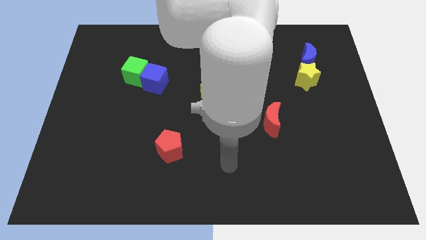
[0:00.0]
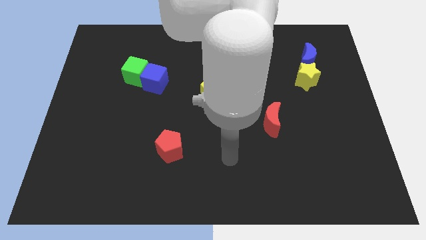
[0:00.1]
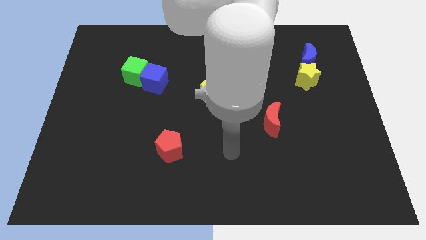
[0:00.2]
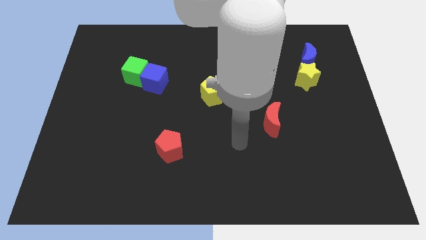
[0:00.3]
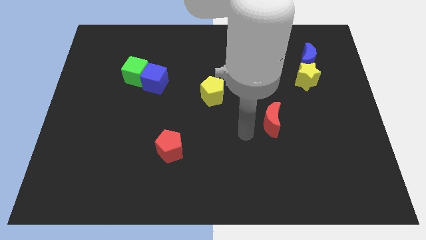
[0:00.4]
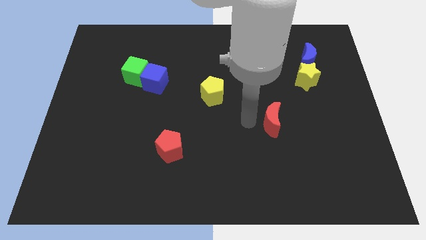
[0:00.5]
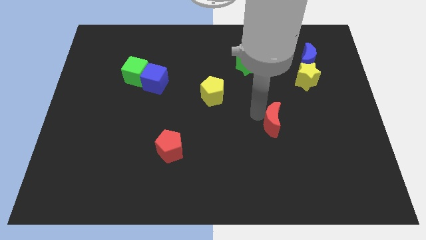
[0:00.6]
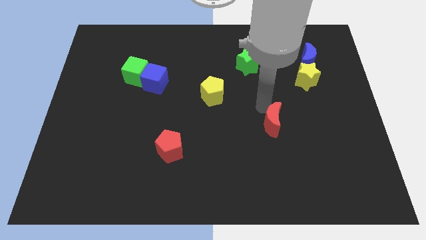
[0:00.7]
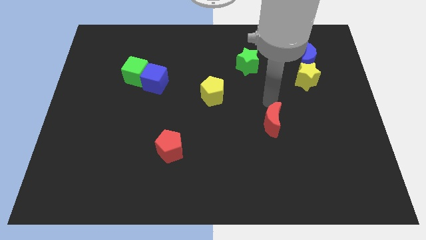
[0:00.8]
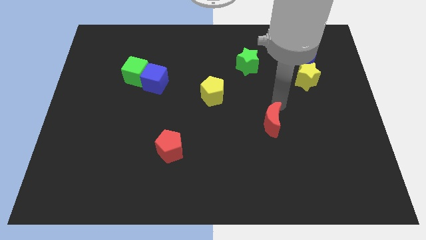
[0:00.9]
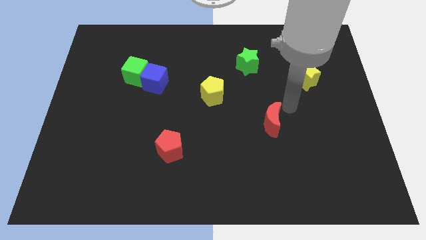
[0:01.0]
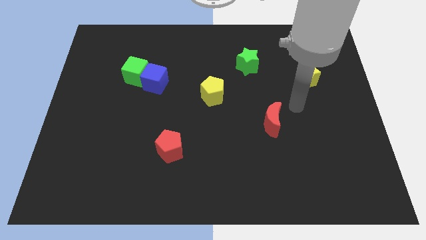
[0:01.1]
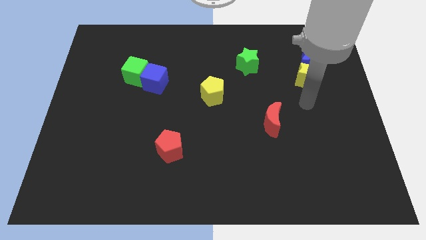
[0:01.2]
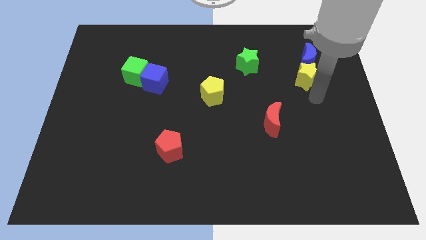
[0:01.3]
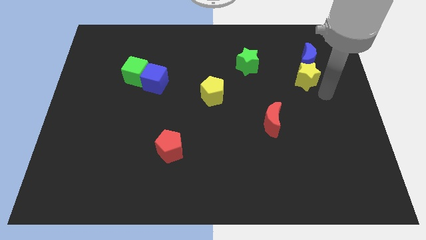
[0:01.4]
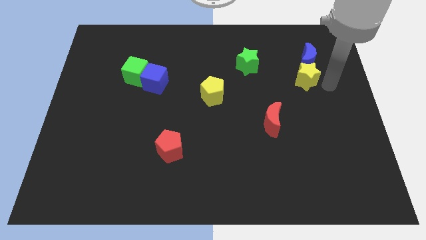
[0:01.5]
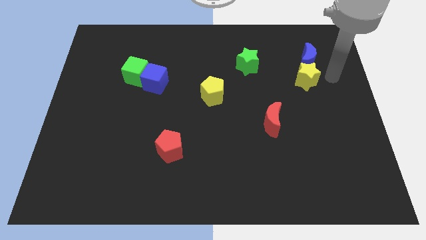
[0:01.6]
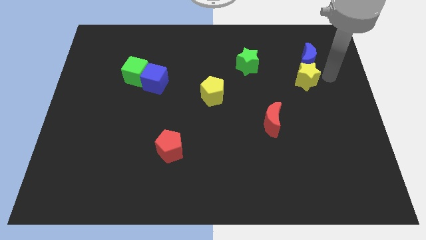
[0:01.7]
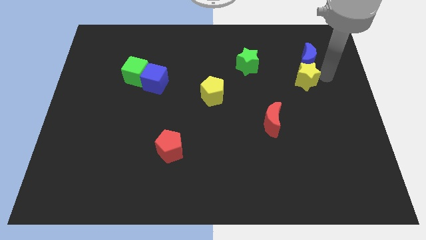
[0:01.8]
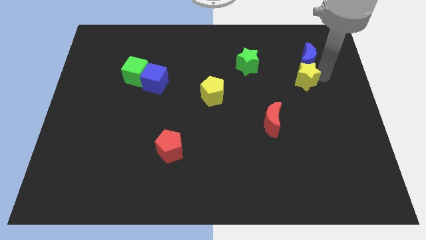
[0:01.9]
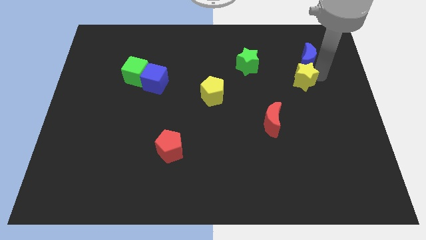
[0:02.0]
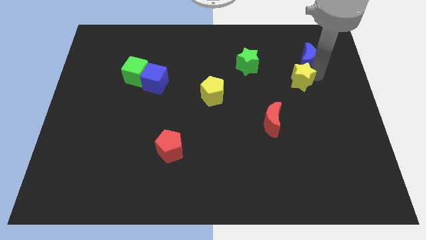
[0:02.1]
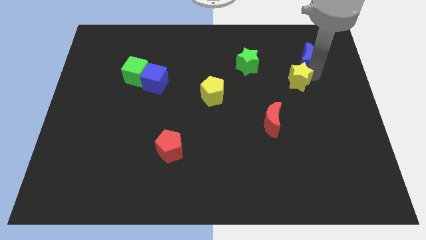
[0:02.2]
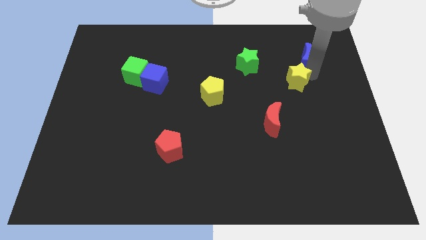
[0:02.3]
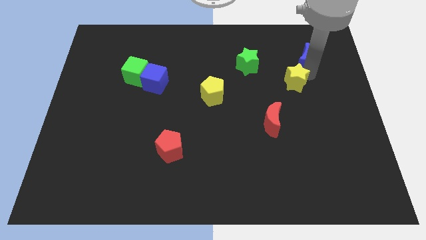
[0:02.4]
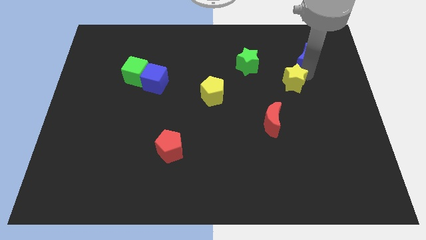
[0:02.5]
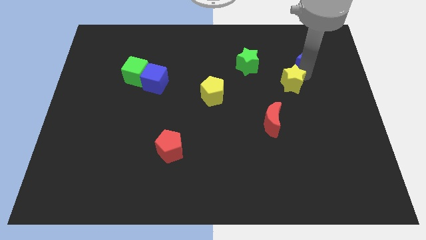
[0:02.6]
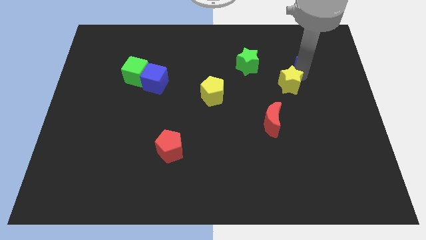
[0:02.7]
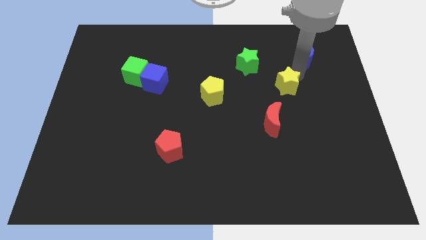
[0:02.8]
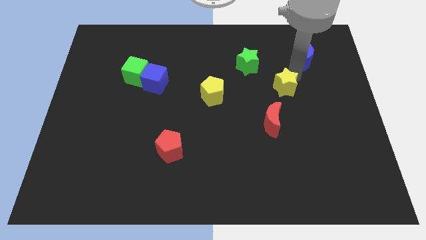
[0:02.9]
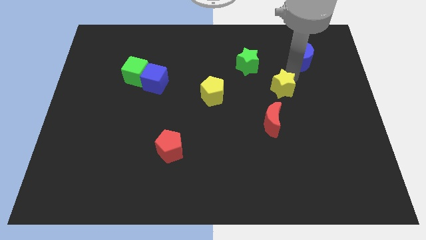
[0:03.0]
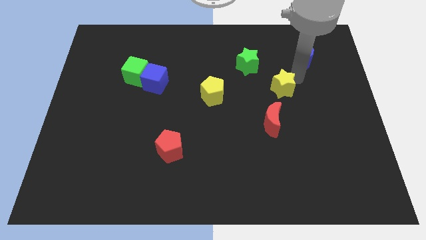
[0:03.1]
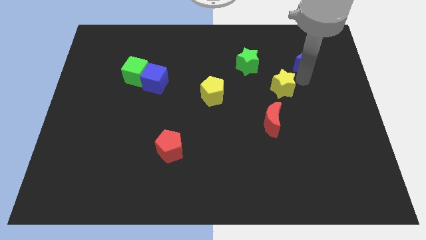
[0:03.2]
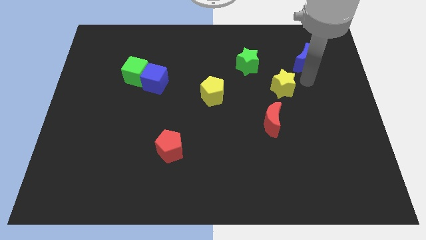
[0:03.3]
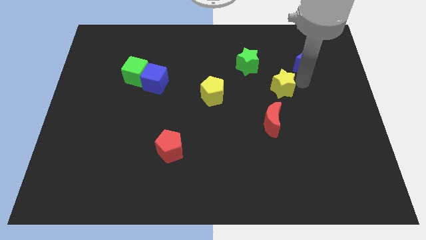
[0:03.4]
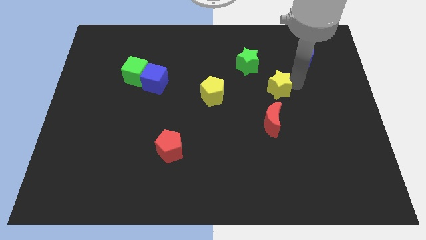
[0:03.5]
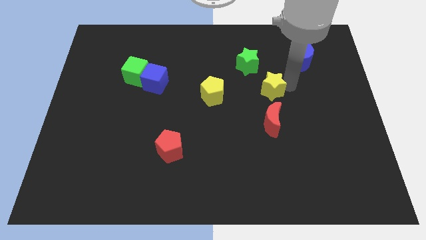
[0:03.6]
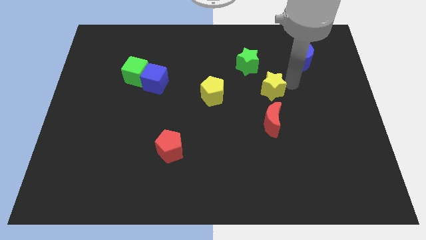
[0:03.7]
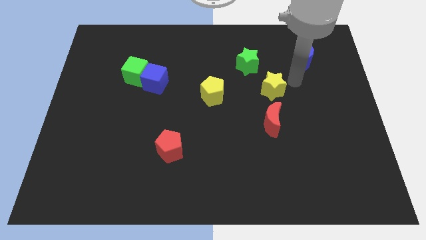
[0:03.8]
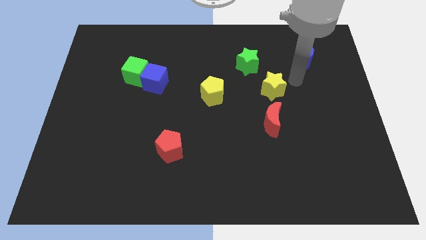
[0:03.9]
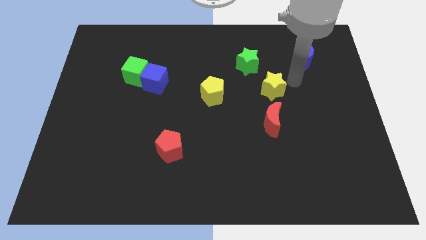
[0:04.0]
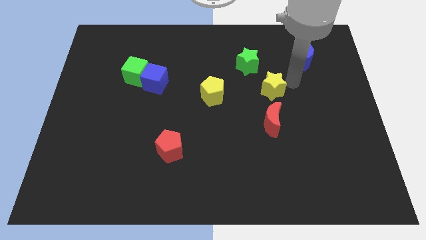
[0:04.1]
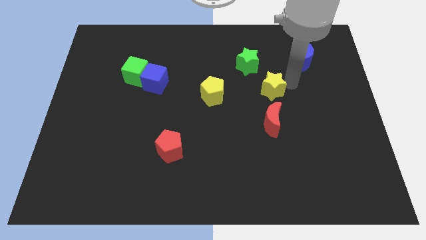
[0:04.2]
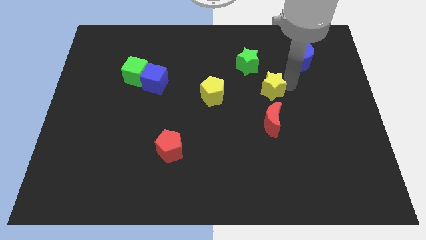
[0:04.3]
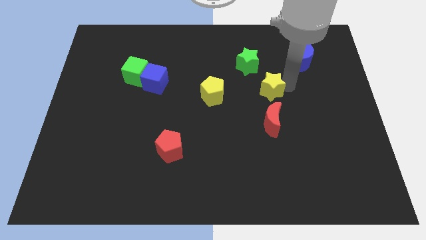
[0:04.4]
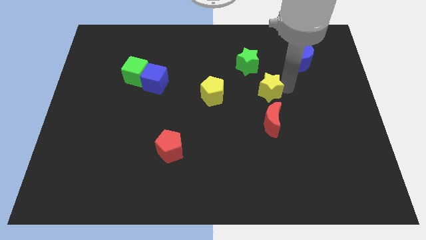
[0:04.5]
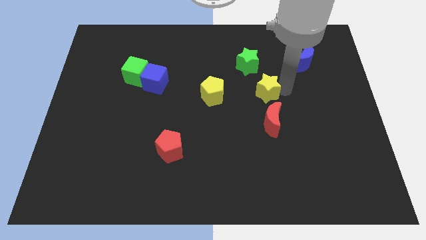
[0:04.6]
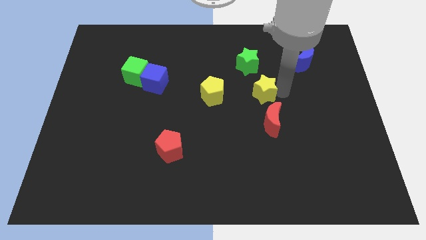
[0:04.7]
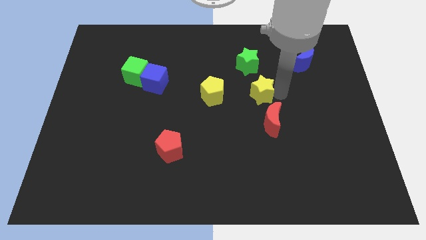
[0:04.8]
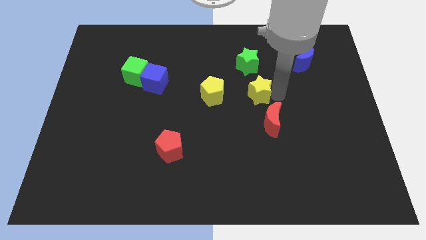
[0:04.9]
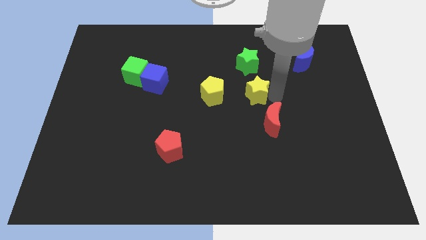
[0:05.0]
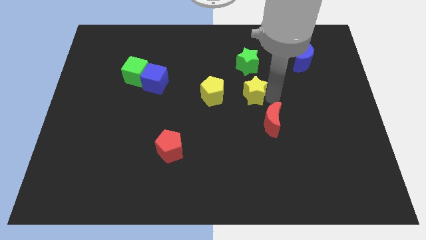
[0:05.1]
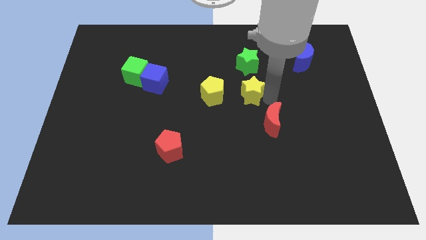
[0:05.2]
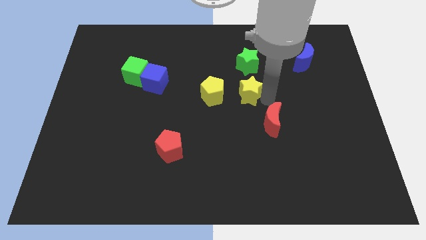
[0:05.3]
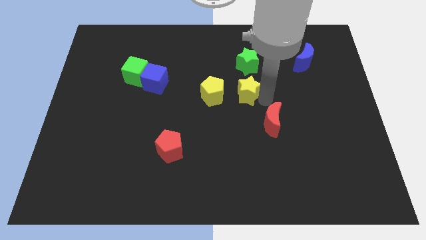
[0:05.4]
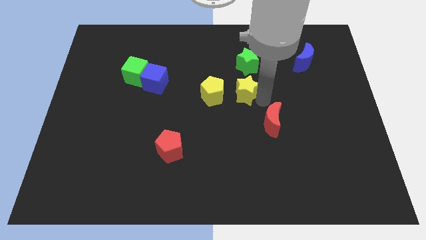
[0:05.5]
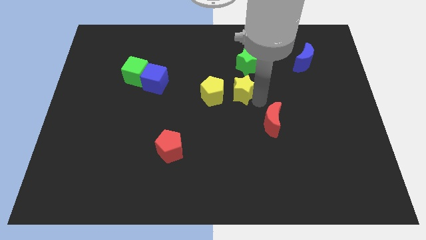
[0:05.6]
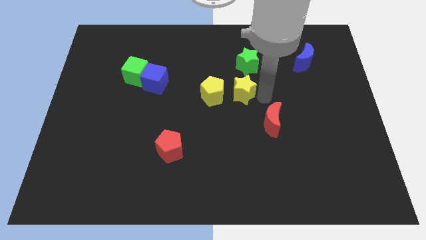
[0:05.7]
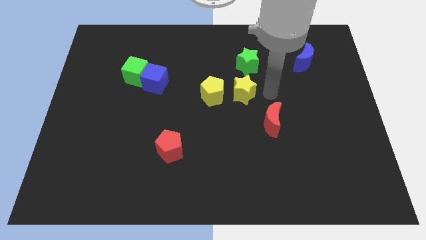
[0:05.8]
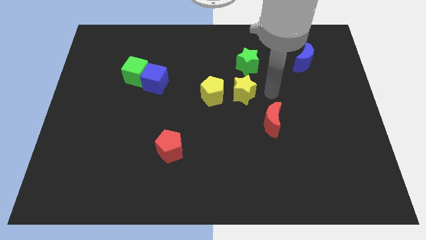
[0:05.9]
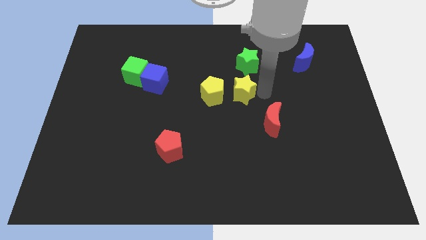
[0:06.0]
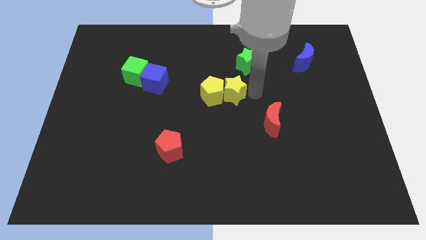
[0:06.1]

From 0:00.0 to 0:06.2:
put the yellow star to the yellow pentagon

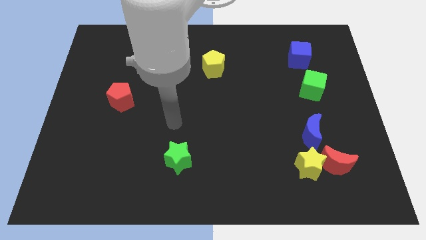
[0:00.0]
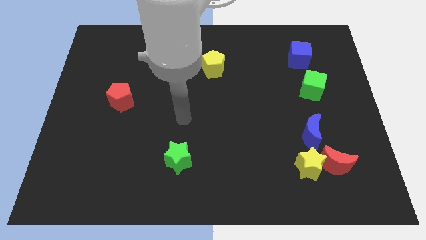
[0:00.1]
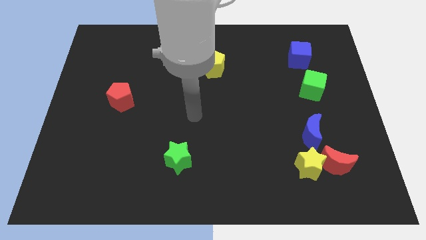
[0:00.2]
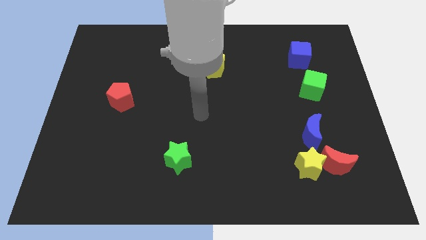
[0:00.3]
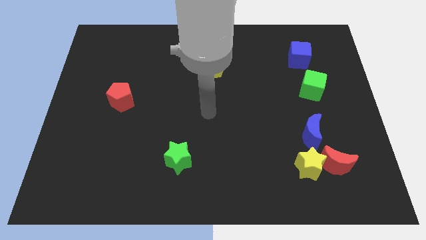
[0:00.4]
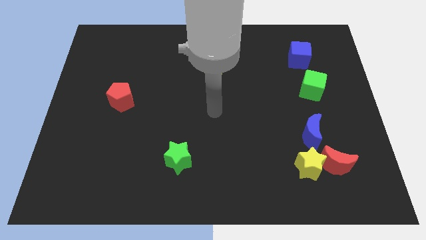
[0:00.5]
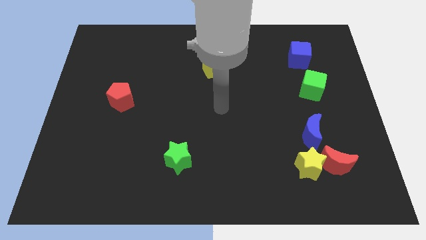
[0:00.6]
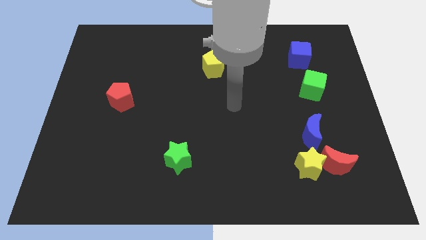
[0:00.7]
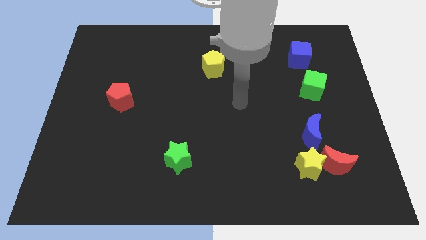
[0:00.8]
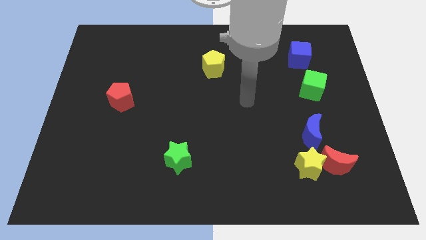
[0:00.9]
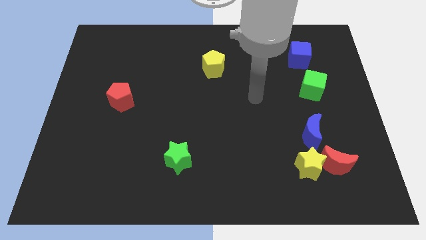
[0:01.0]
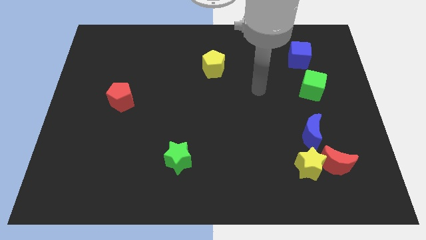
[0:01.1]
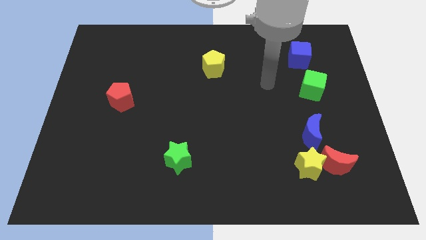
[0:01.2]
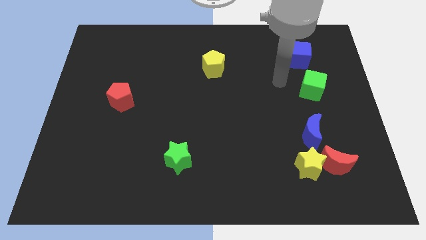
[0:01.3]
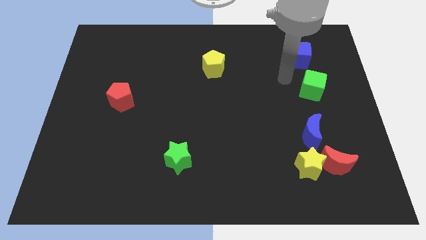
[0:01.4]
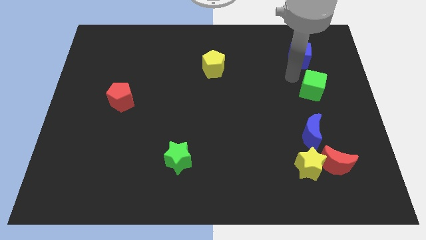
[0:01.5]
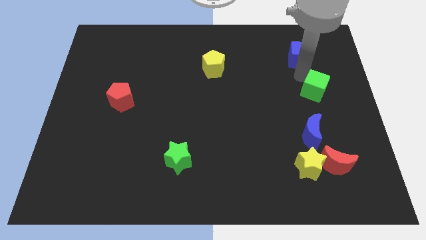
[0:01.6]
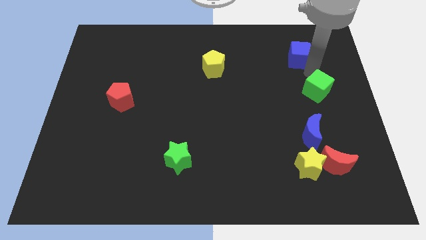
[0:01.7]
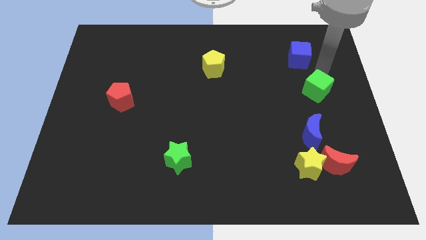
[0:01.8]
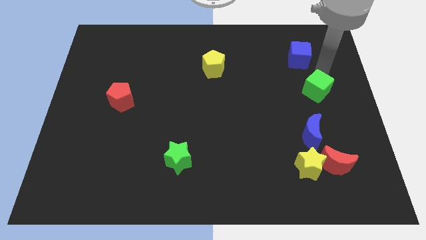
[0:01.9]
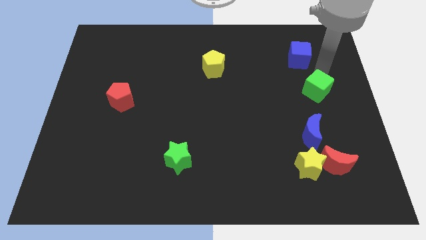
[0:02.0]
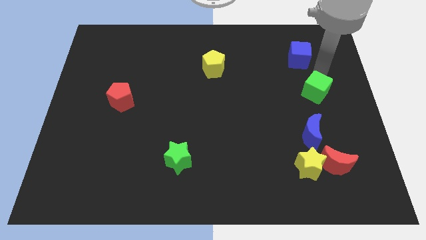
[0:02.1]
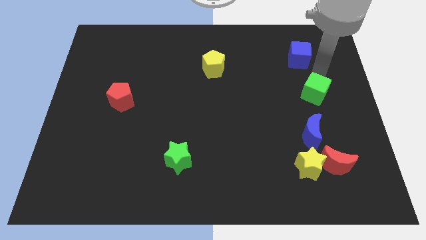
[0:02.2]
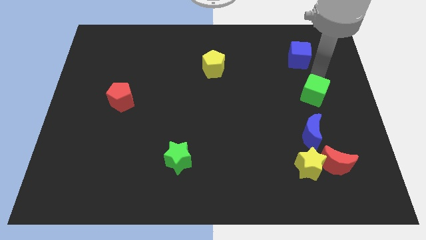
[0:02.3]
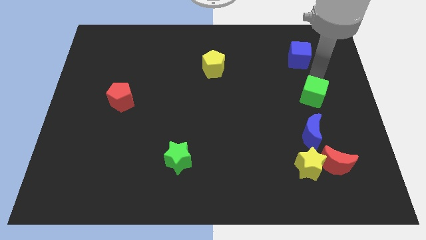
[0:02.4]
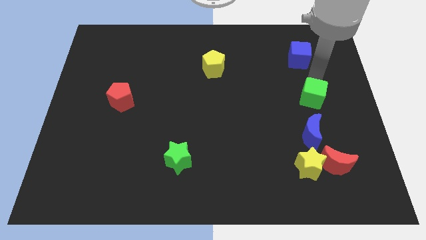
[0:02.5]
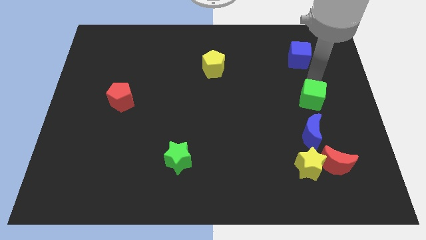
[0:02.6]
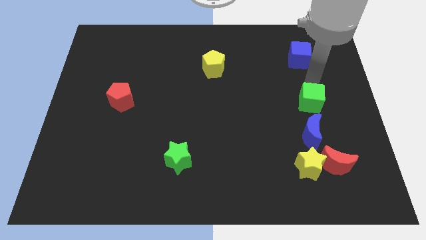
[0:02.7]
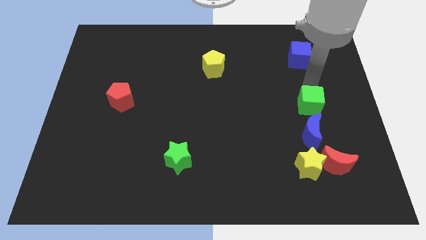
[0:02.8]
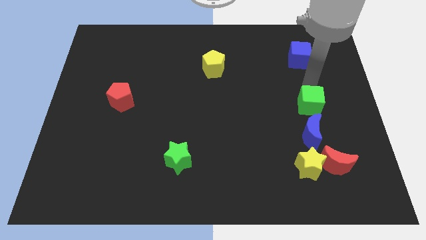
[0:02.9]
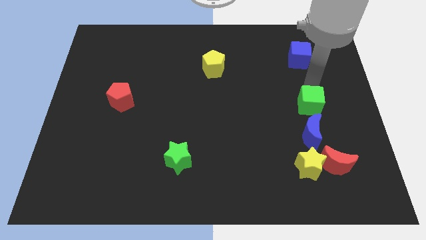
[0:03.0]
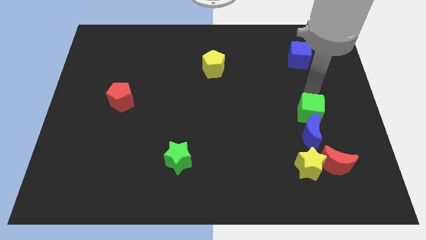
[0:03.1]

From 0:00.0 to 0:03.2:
put the green cube next to the blue moon
